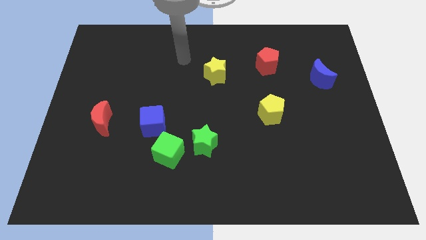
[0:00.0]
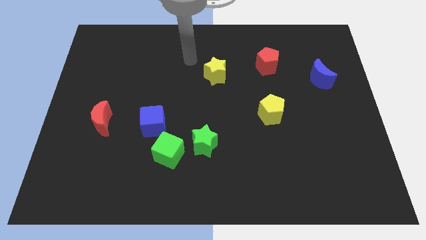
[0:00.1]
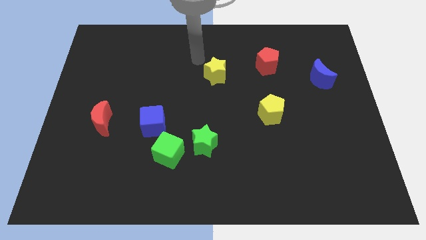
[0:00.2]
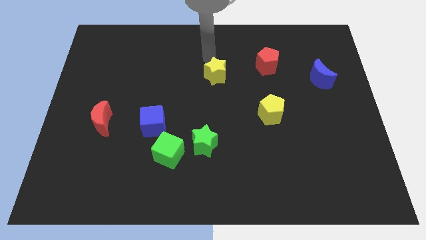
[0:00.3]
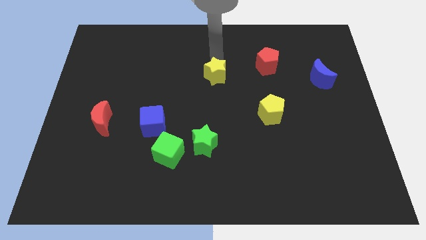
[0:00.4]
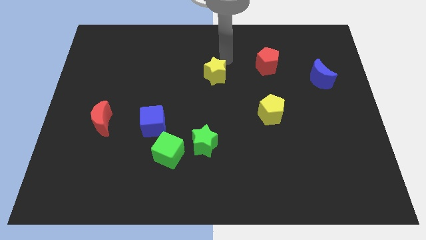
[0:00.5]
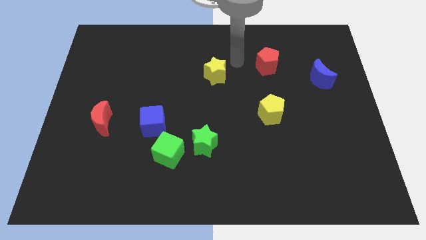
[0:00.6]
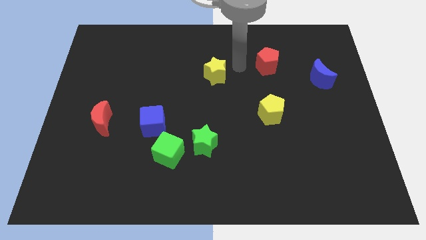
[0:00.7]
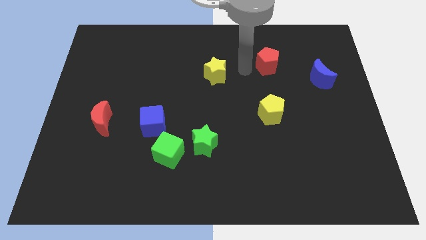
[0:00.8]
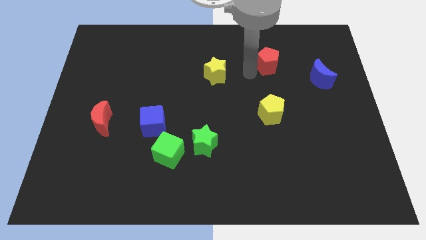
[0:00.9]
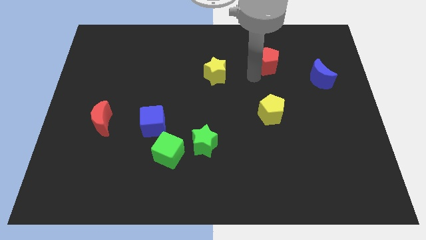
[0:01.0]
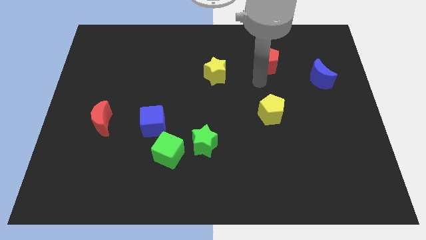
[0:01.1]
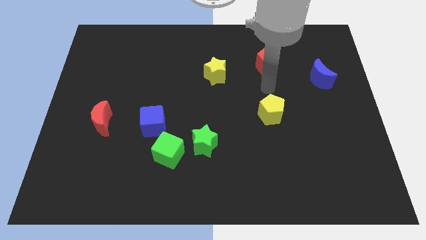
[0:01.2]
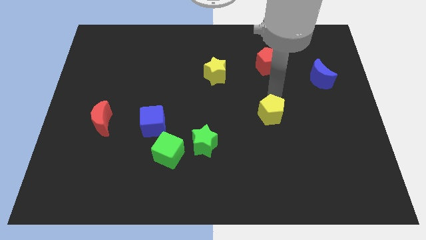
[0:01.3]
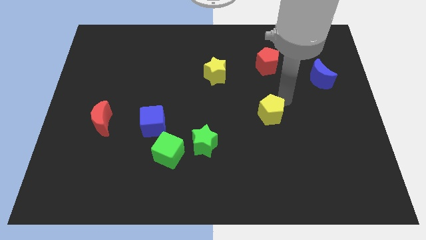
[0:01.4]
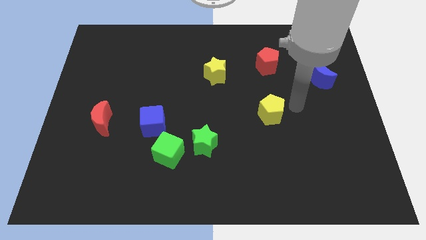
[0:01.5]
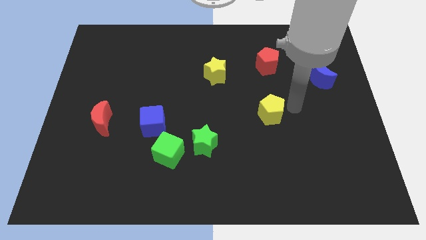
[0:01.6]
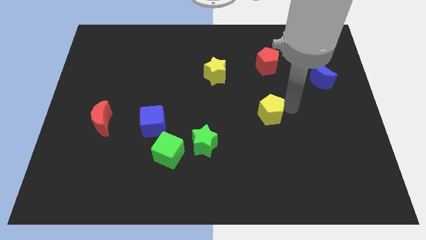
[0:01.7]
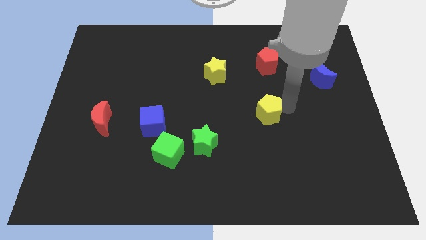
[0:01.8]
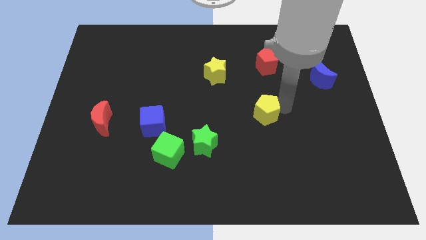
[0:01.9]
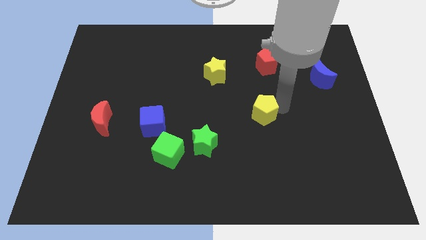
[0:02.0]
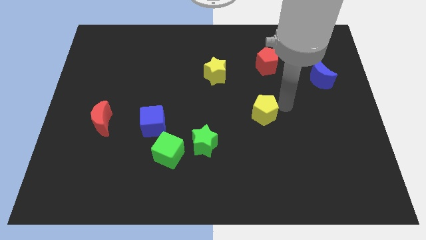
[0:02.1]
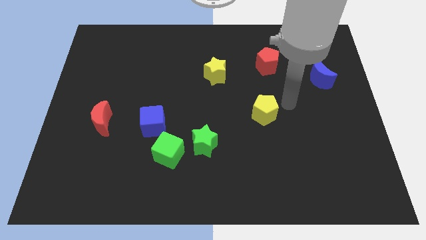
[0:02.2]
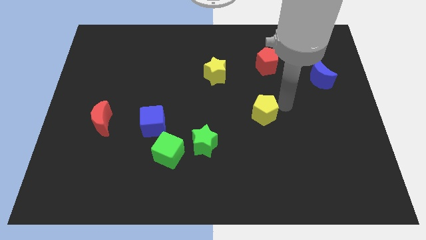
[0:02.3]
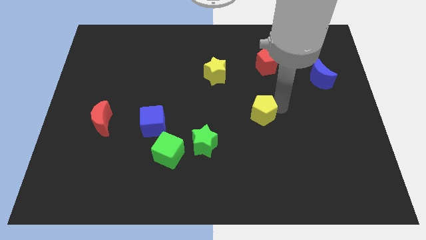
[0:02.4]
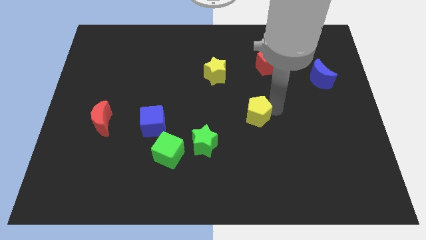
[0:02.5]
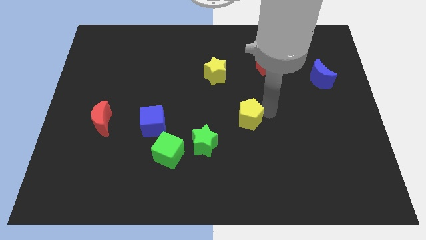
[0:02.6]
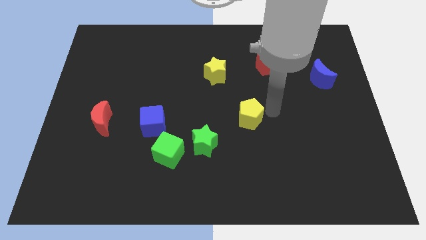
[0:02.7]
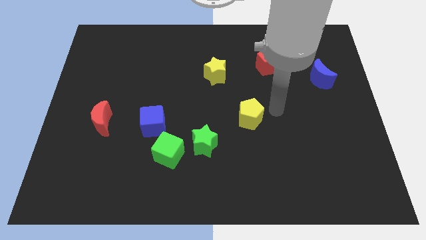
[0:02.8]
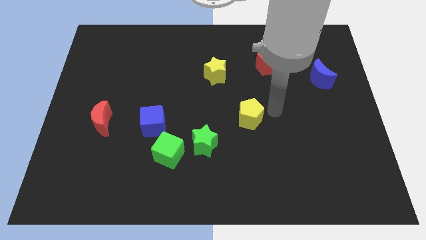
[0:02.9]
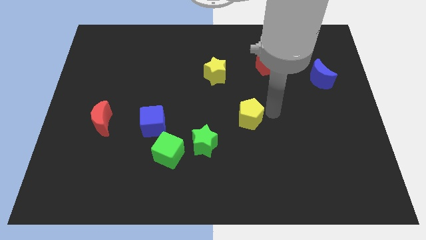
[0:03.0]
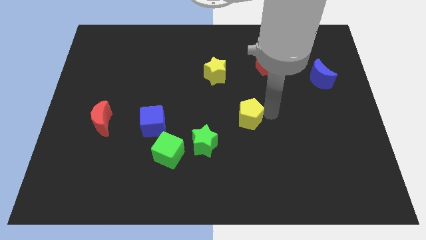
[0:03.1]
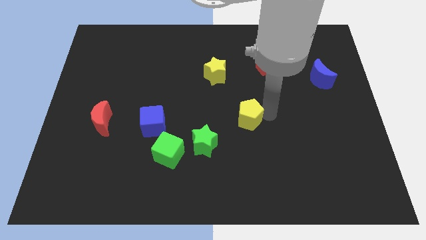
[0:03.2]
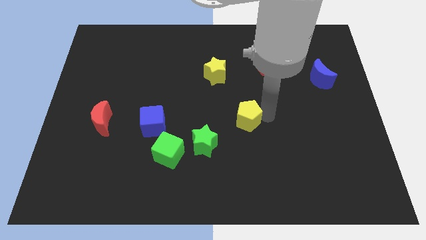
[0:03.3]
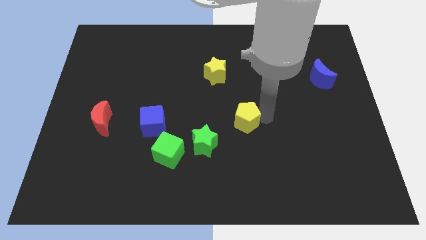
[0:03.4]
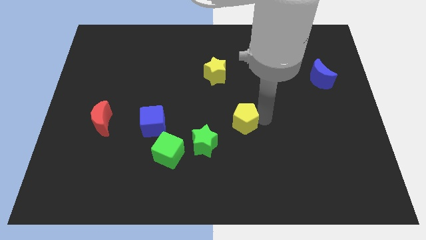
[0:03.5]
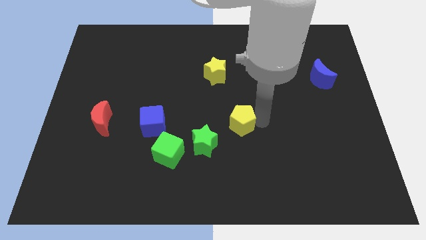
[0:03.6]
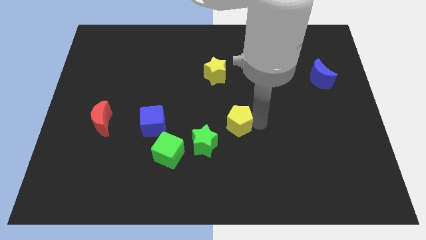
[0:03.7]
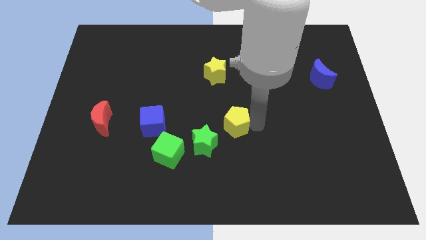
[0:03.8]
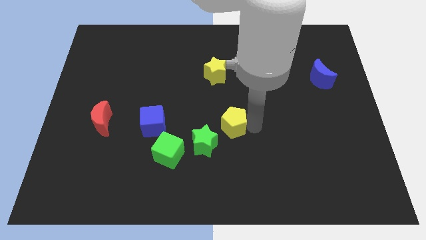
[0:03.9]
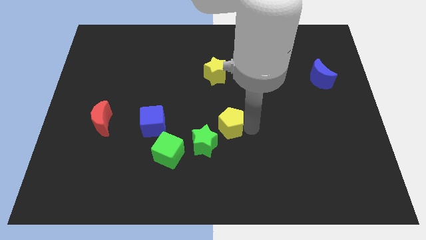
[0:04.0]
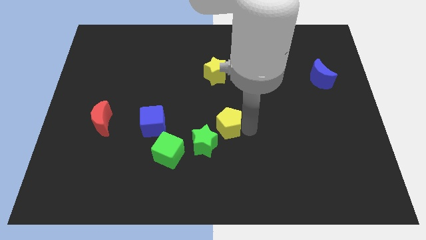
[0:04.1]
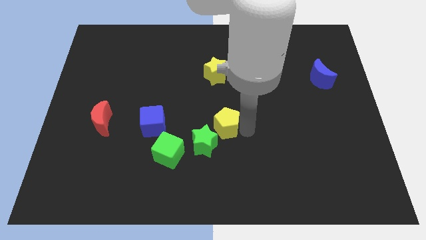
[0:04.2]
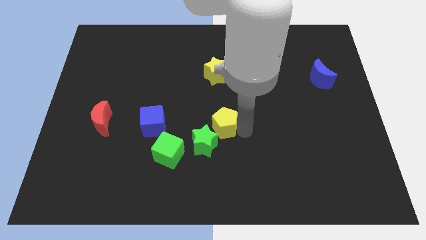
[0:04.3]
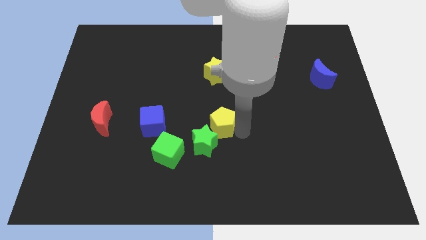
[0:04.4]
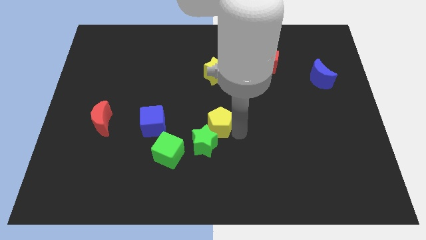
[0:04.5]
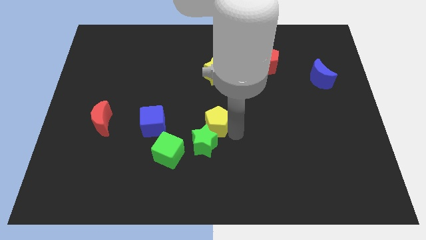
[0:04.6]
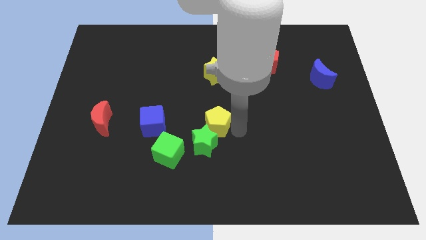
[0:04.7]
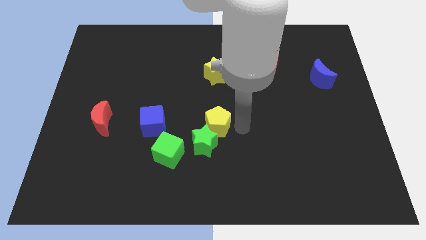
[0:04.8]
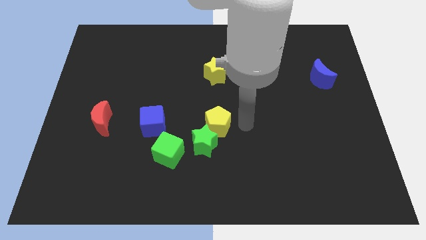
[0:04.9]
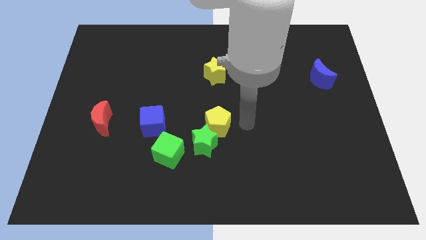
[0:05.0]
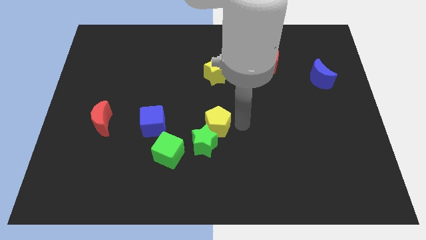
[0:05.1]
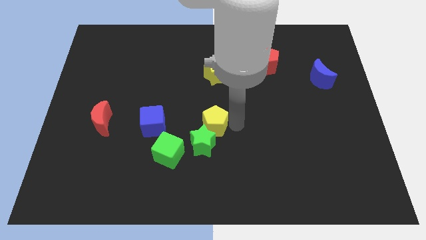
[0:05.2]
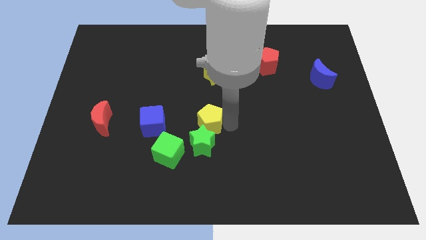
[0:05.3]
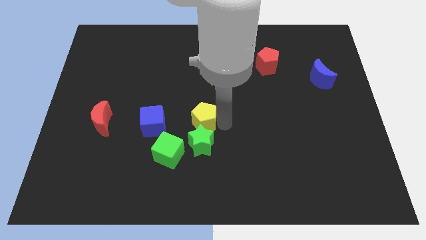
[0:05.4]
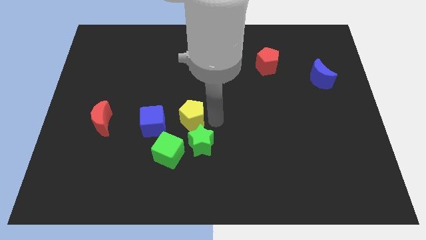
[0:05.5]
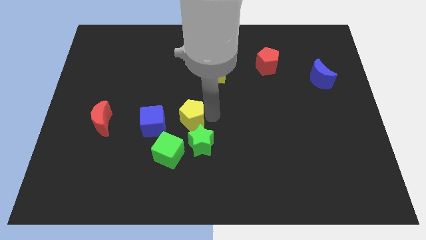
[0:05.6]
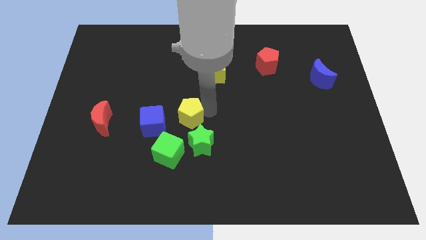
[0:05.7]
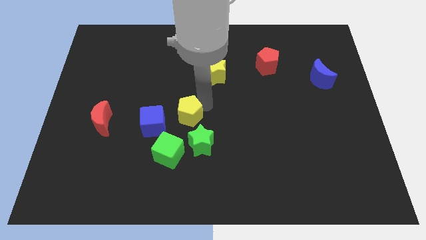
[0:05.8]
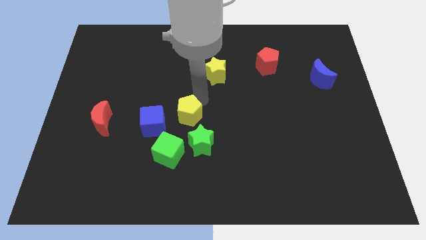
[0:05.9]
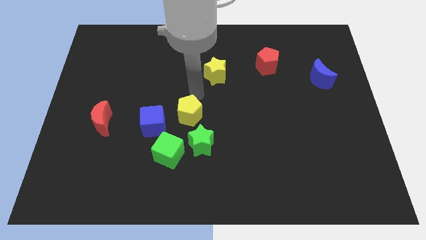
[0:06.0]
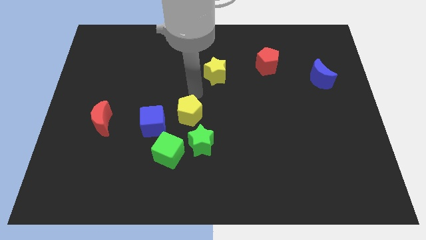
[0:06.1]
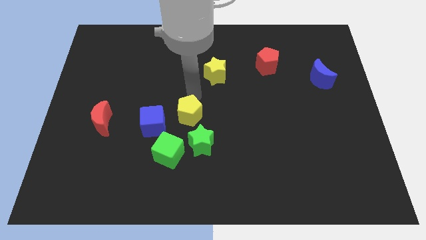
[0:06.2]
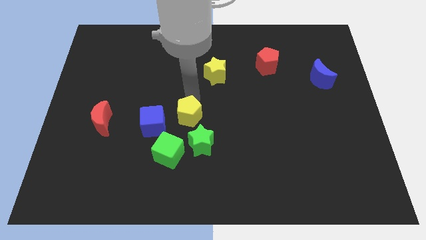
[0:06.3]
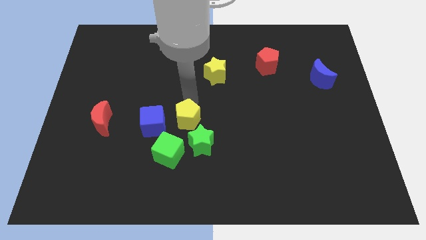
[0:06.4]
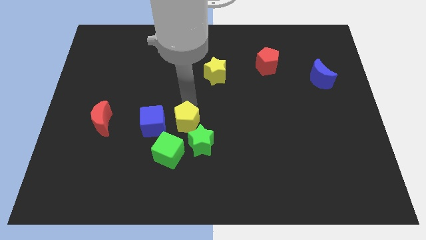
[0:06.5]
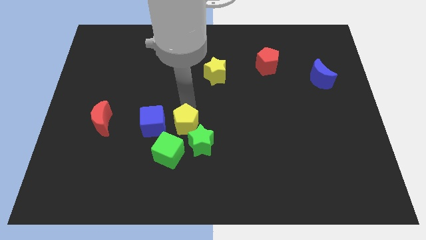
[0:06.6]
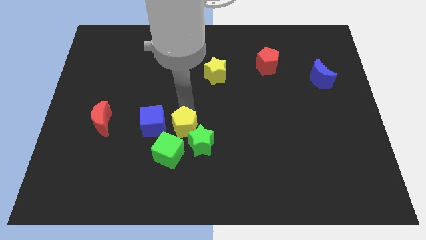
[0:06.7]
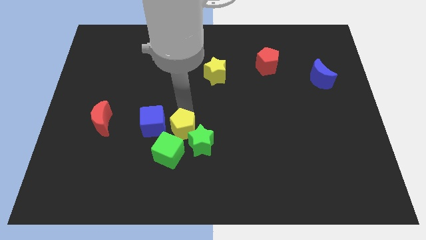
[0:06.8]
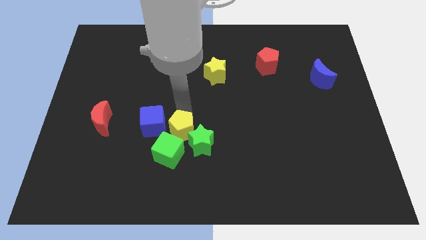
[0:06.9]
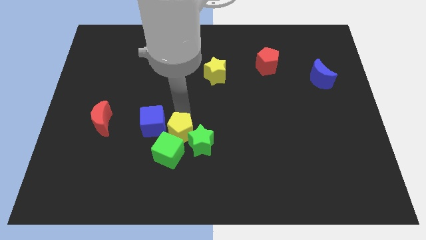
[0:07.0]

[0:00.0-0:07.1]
put the yellow pentagon next to the green cube
